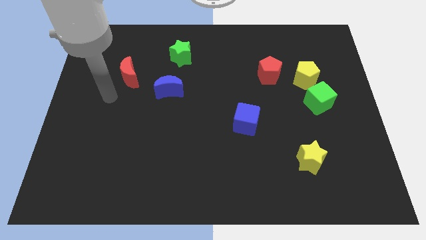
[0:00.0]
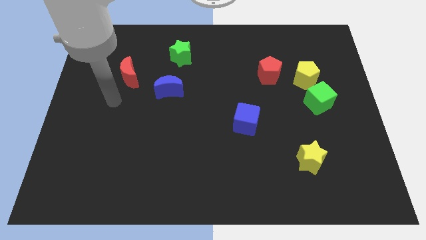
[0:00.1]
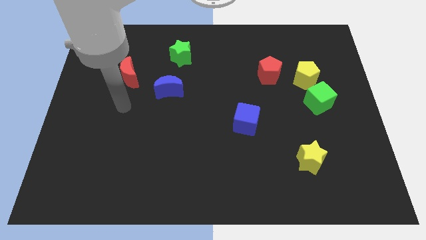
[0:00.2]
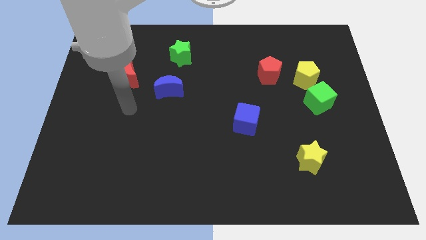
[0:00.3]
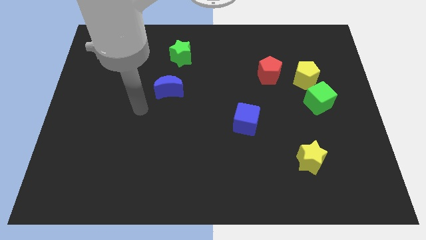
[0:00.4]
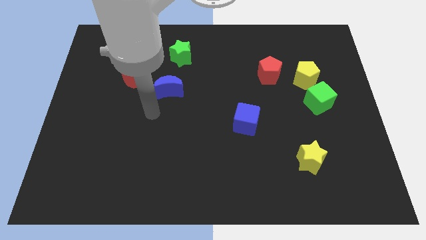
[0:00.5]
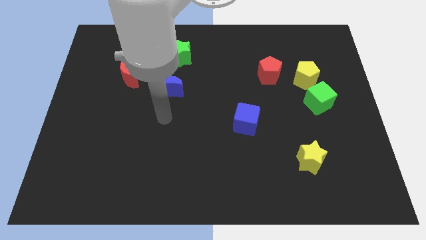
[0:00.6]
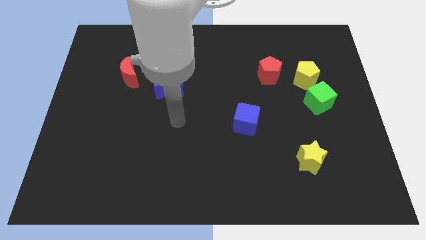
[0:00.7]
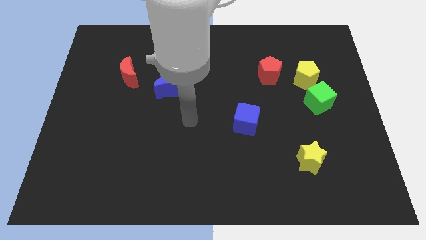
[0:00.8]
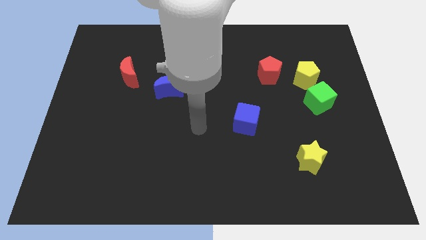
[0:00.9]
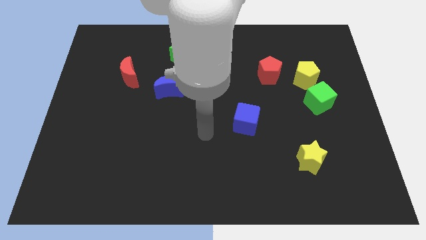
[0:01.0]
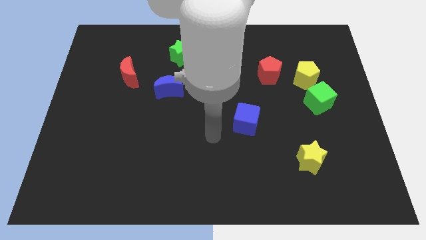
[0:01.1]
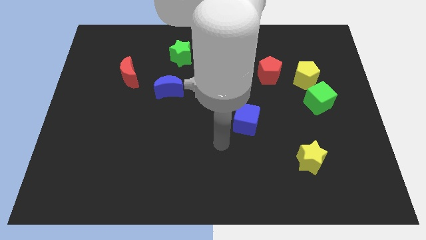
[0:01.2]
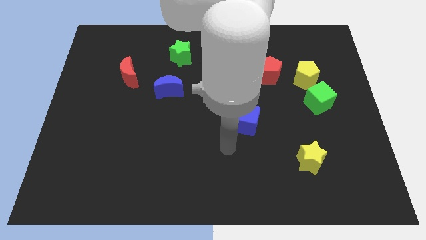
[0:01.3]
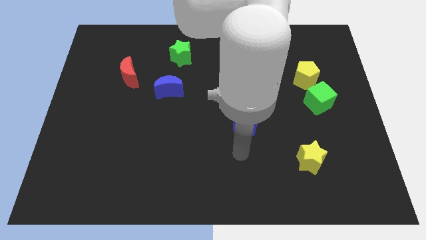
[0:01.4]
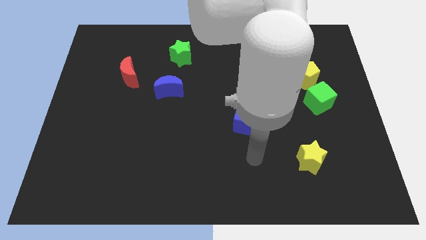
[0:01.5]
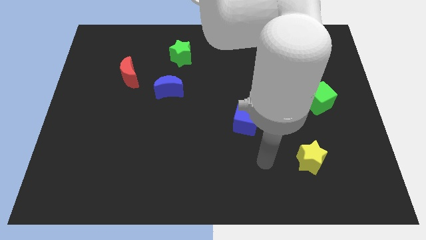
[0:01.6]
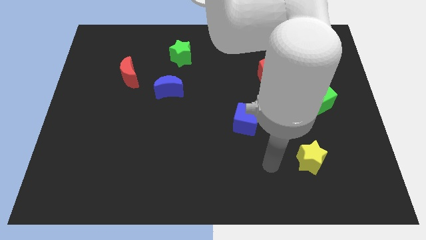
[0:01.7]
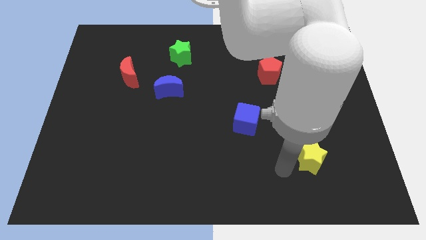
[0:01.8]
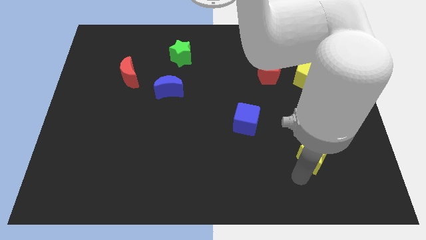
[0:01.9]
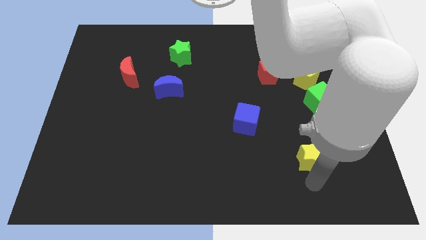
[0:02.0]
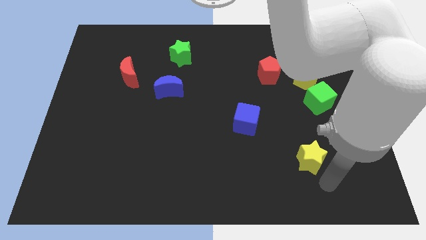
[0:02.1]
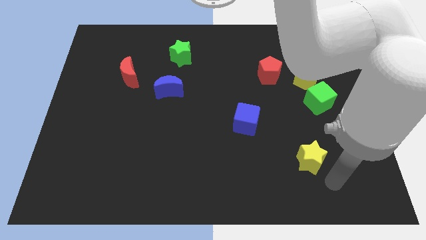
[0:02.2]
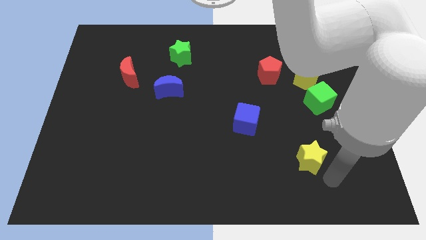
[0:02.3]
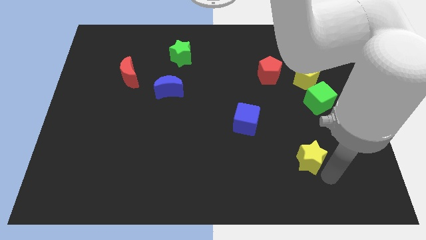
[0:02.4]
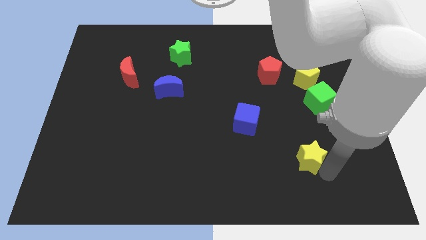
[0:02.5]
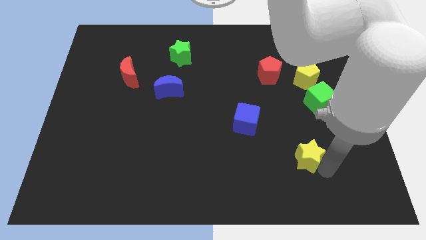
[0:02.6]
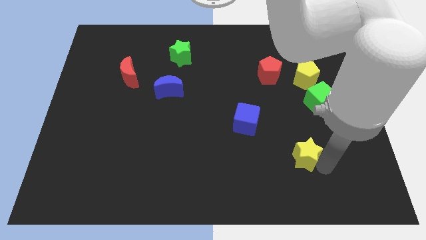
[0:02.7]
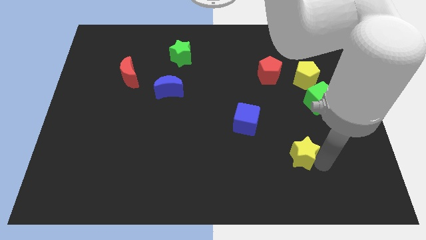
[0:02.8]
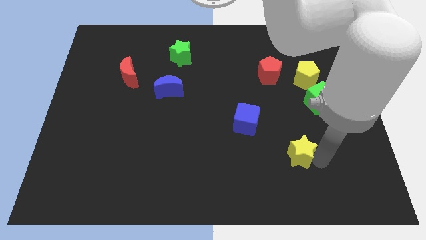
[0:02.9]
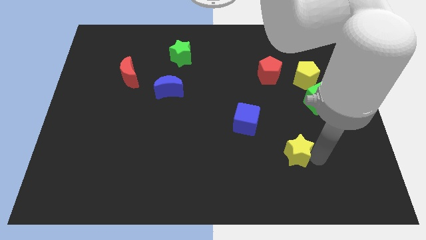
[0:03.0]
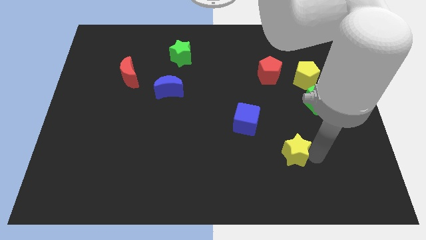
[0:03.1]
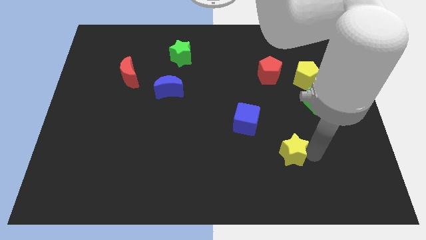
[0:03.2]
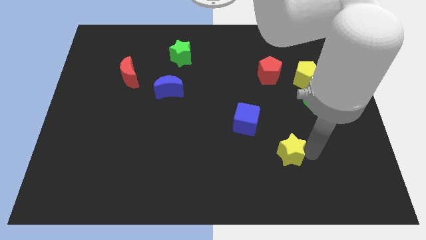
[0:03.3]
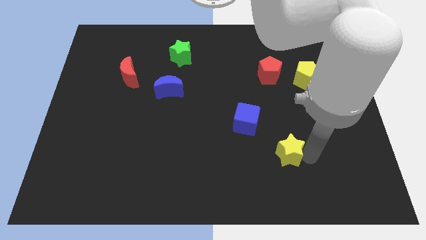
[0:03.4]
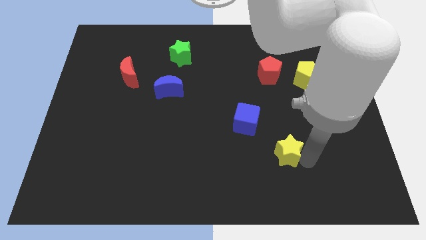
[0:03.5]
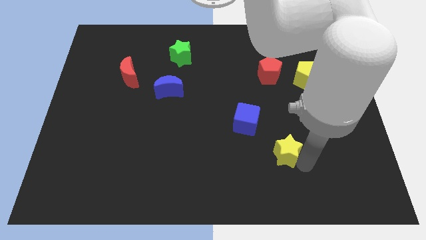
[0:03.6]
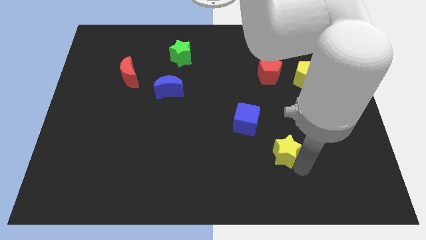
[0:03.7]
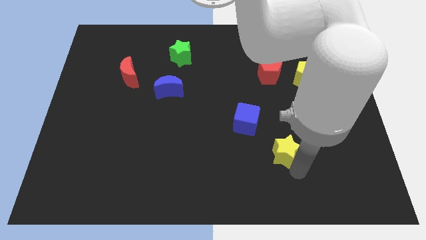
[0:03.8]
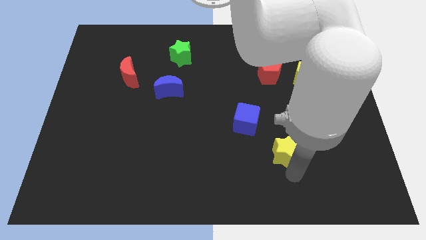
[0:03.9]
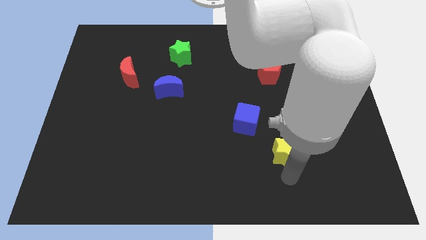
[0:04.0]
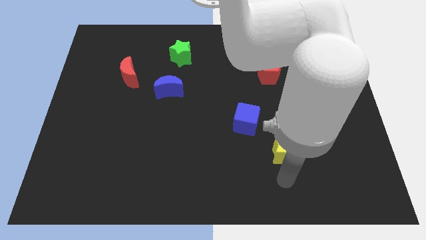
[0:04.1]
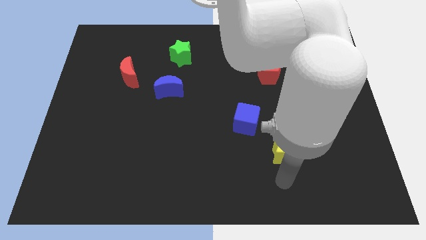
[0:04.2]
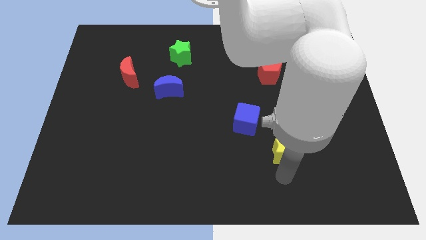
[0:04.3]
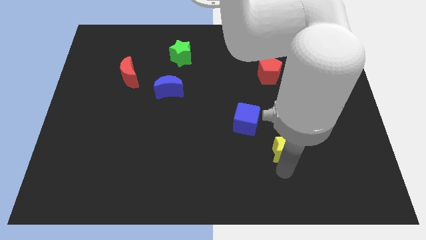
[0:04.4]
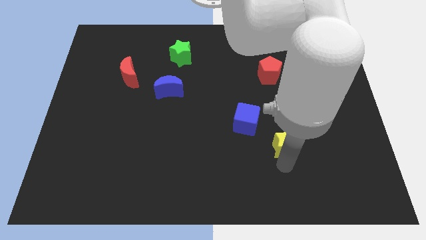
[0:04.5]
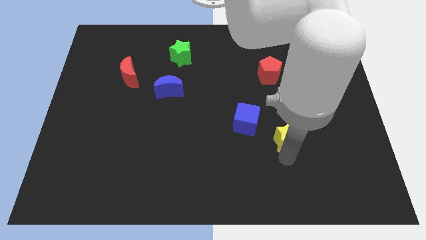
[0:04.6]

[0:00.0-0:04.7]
move the yellow star upwards and left diagonally a bit

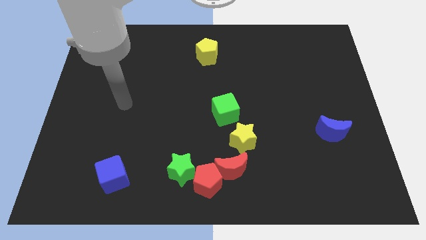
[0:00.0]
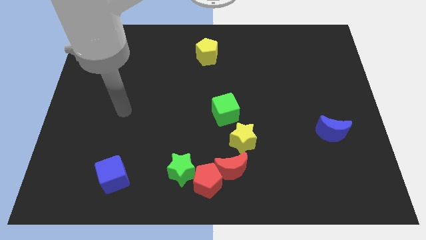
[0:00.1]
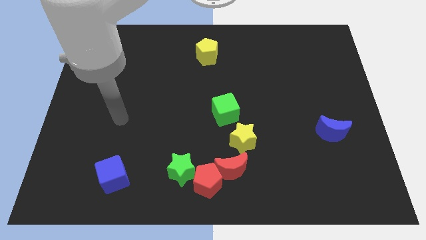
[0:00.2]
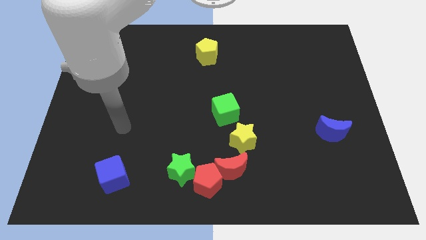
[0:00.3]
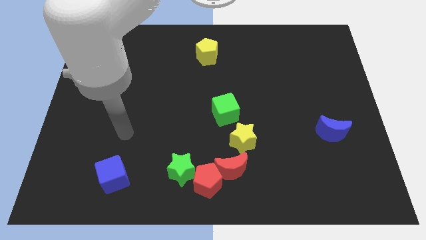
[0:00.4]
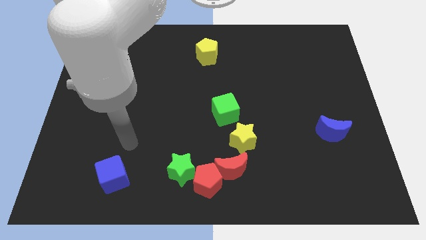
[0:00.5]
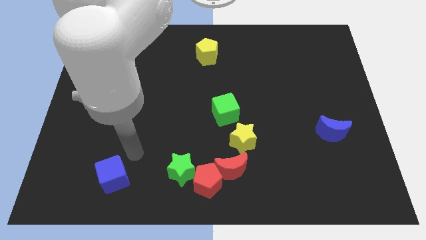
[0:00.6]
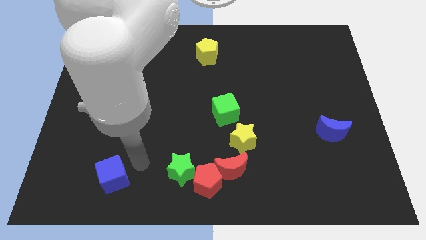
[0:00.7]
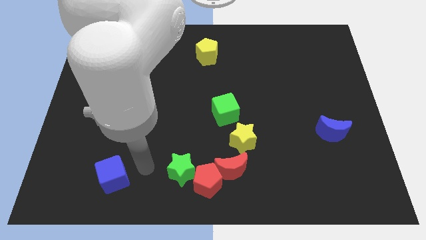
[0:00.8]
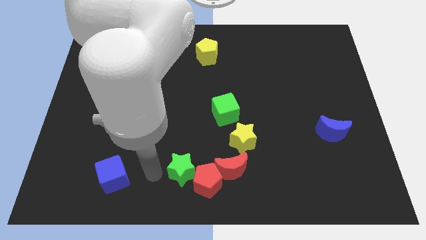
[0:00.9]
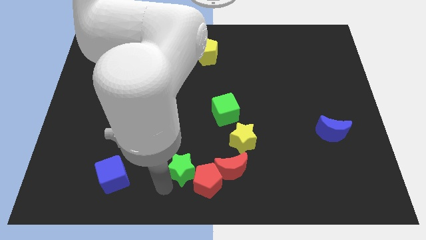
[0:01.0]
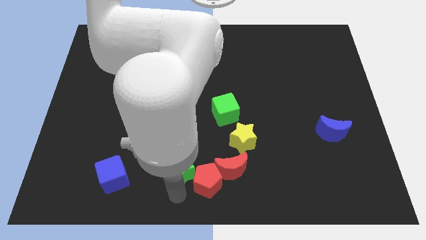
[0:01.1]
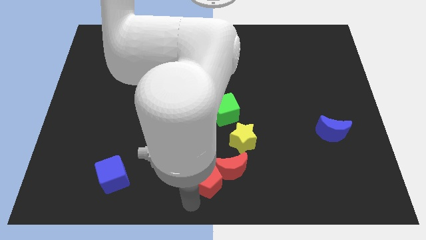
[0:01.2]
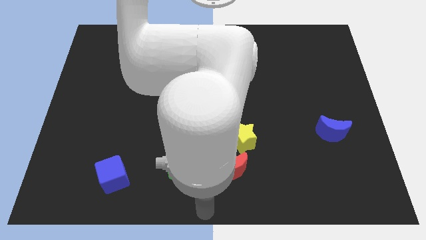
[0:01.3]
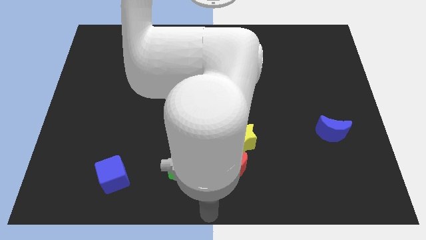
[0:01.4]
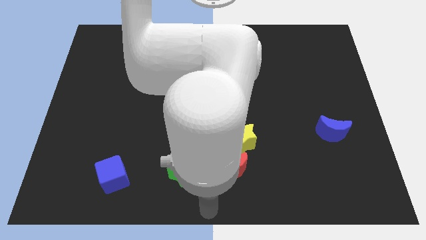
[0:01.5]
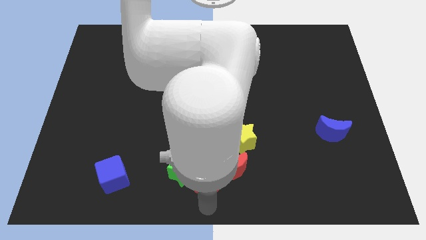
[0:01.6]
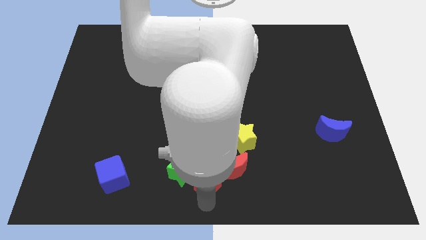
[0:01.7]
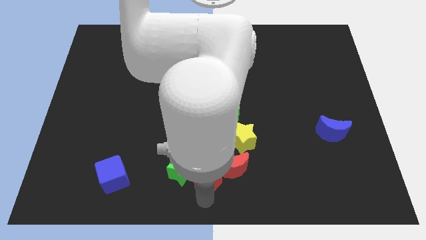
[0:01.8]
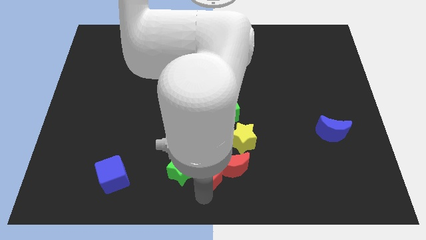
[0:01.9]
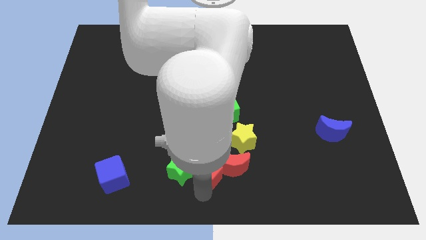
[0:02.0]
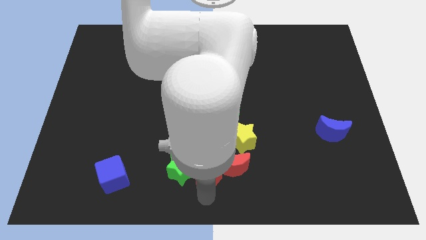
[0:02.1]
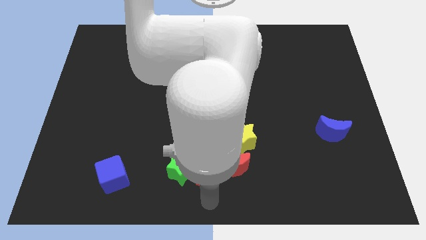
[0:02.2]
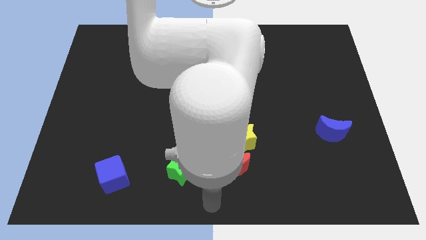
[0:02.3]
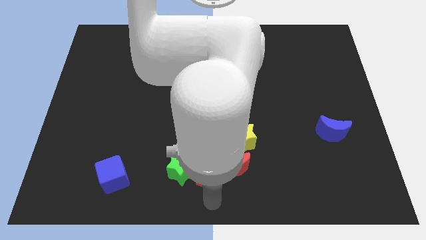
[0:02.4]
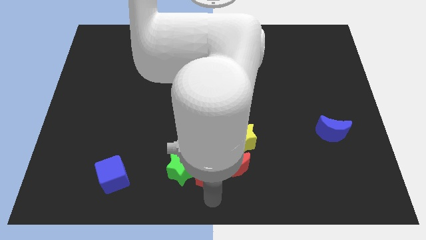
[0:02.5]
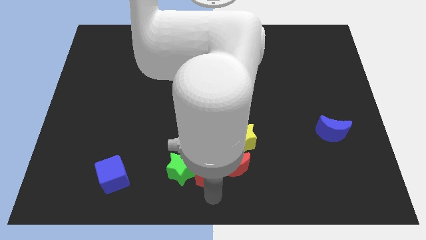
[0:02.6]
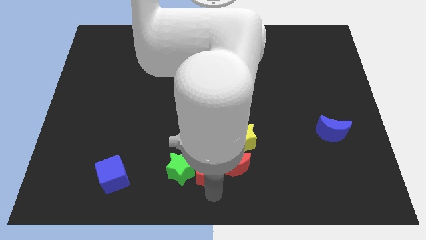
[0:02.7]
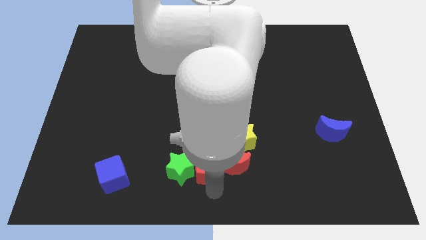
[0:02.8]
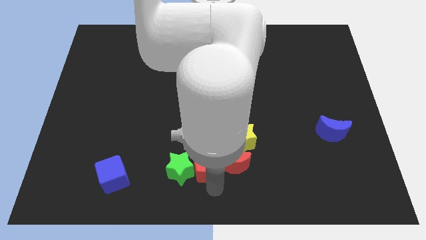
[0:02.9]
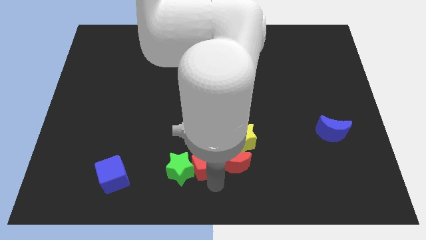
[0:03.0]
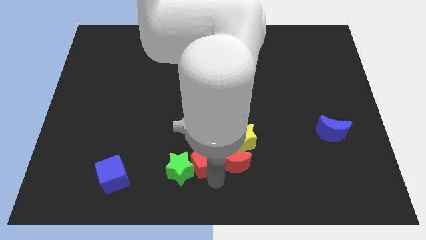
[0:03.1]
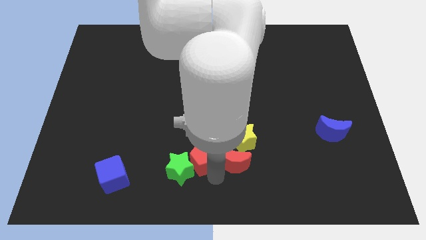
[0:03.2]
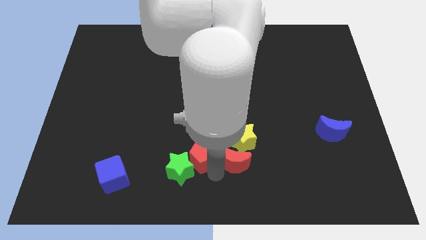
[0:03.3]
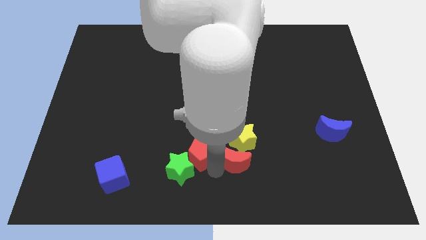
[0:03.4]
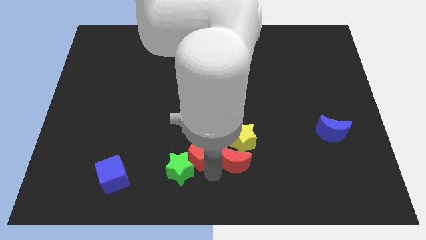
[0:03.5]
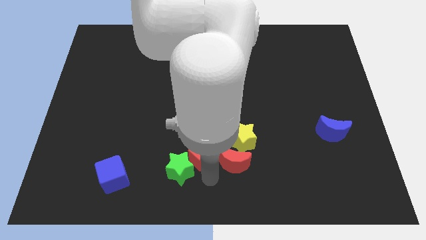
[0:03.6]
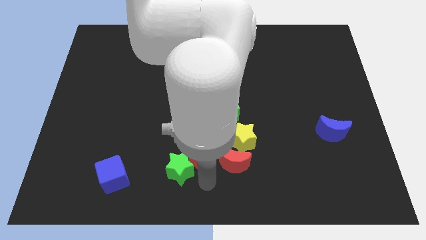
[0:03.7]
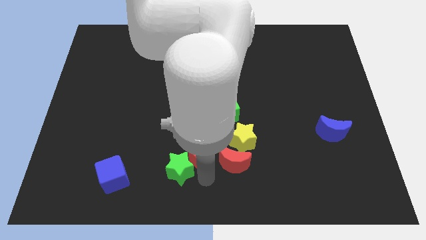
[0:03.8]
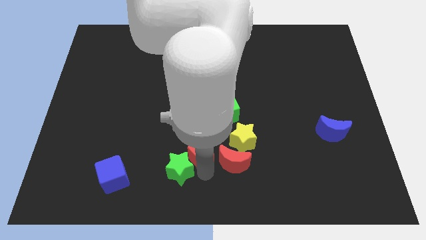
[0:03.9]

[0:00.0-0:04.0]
push the red pentagon slightly up
